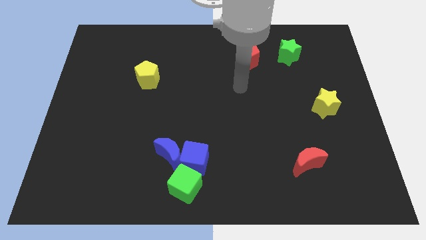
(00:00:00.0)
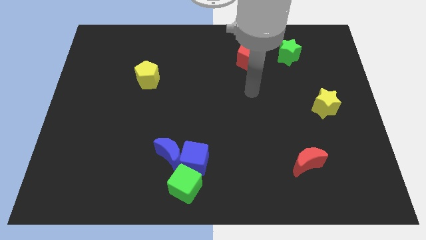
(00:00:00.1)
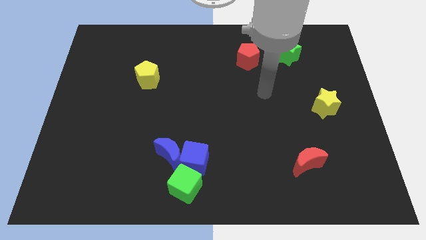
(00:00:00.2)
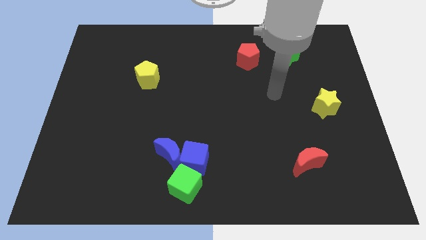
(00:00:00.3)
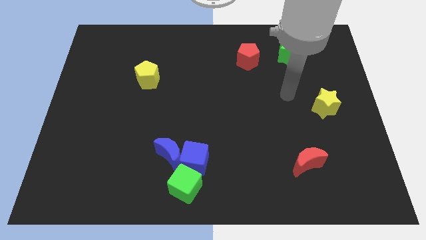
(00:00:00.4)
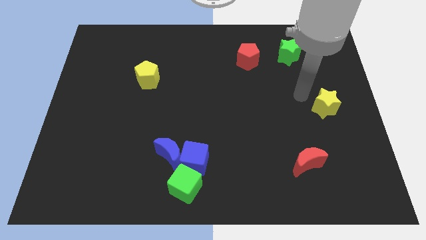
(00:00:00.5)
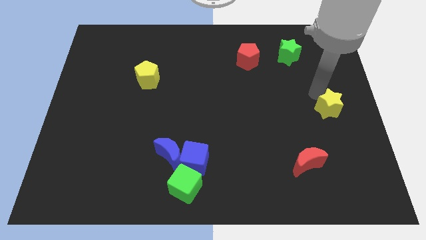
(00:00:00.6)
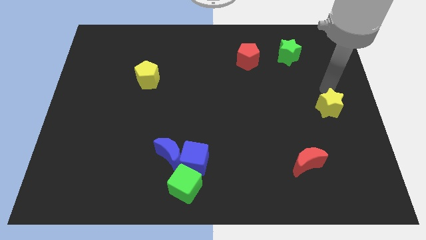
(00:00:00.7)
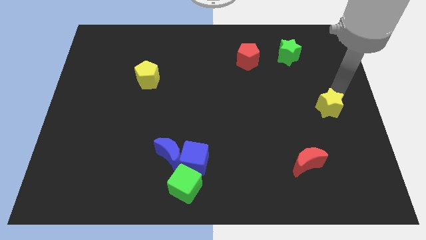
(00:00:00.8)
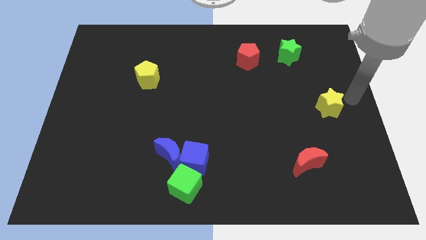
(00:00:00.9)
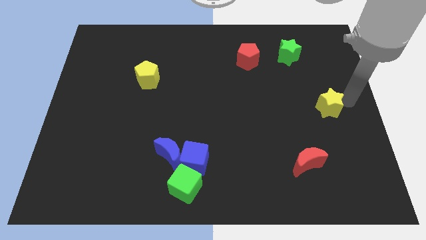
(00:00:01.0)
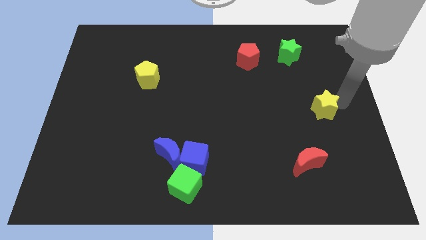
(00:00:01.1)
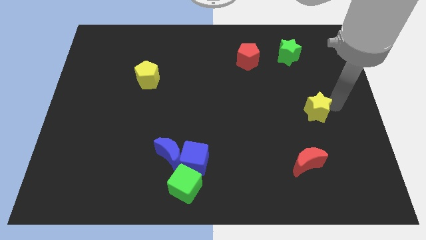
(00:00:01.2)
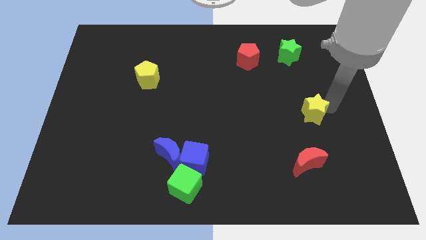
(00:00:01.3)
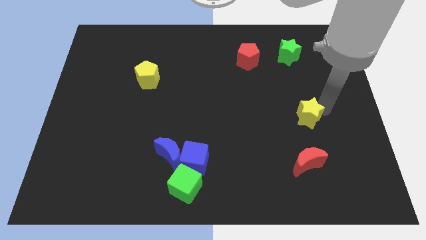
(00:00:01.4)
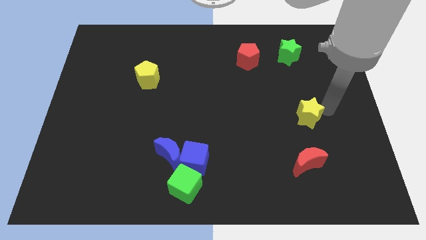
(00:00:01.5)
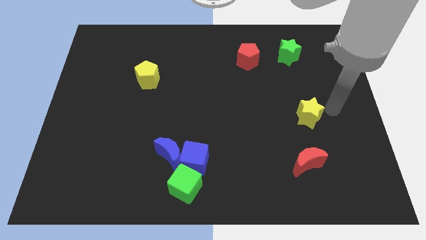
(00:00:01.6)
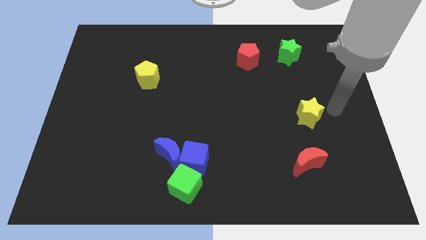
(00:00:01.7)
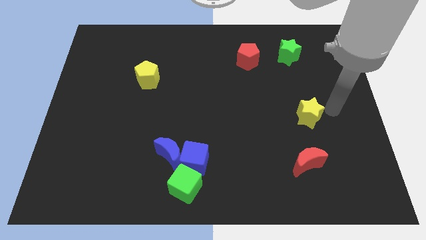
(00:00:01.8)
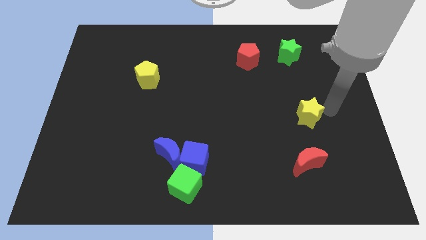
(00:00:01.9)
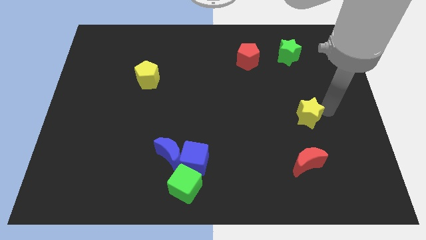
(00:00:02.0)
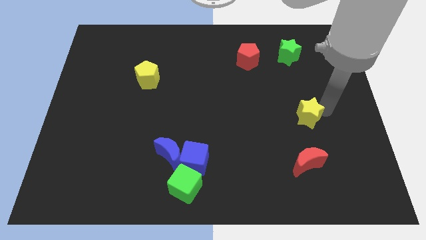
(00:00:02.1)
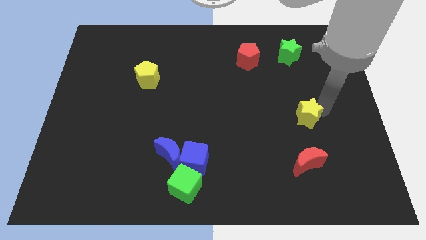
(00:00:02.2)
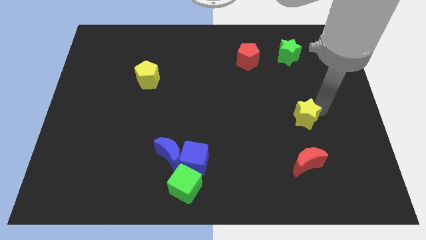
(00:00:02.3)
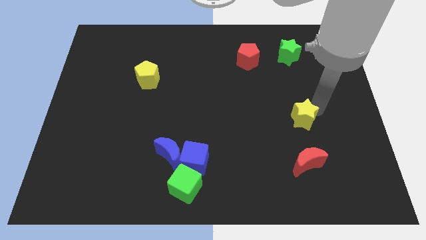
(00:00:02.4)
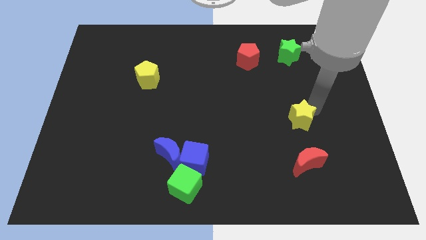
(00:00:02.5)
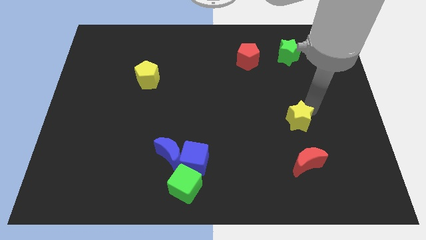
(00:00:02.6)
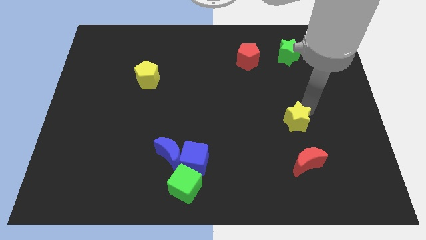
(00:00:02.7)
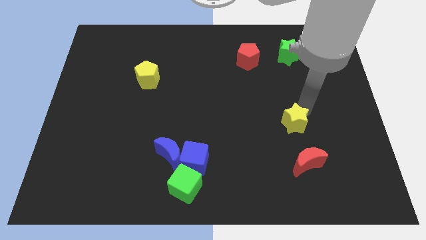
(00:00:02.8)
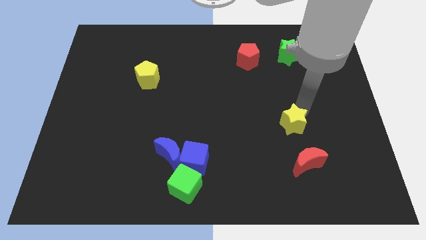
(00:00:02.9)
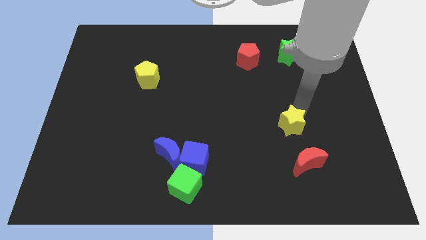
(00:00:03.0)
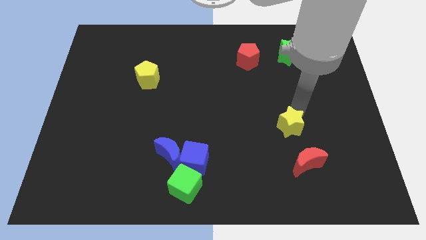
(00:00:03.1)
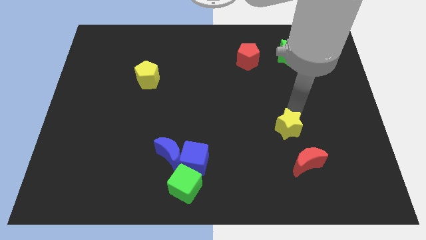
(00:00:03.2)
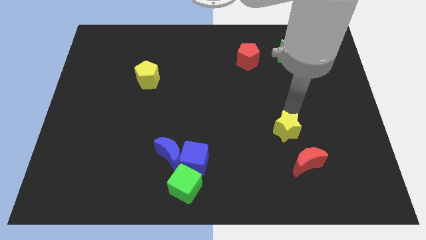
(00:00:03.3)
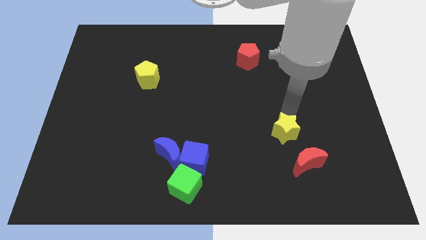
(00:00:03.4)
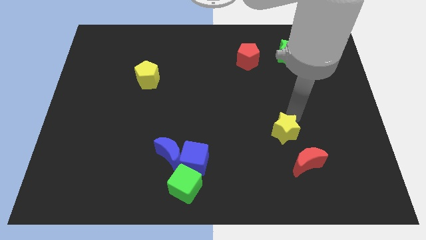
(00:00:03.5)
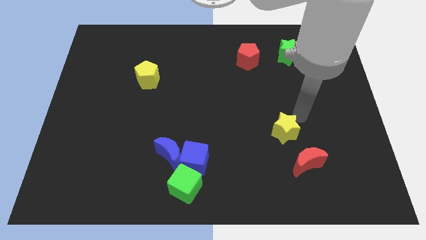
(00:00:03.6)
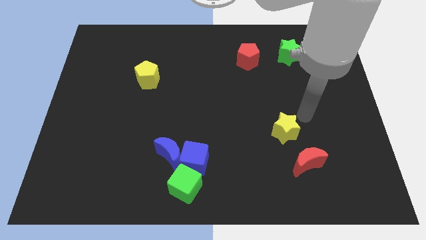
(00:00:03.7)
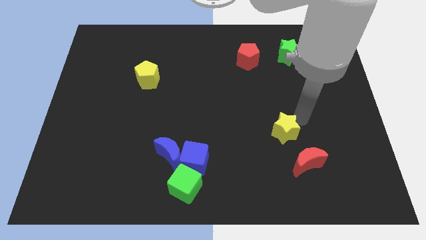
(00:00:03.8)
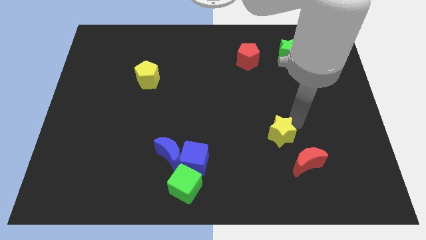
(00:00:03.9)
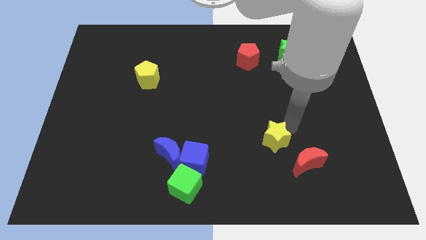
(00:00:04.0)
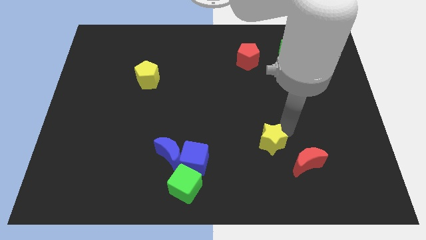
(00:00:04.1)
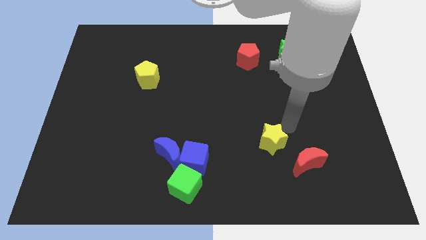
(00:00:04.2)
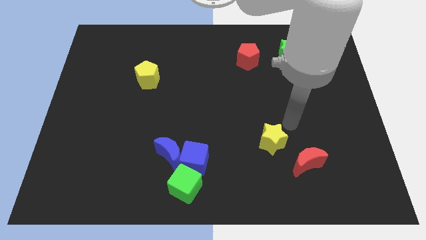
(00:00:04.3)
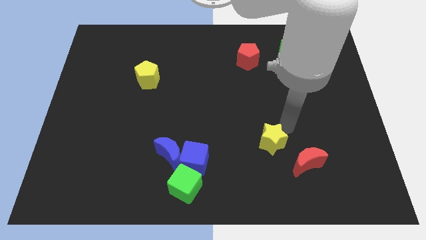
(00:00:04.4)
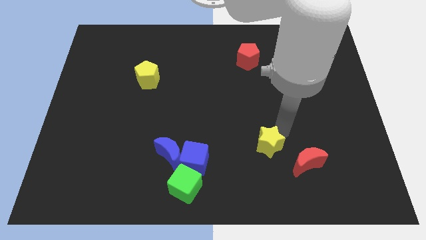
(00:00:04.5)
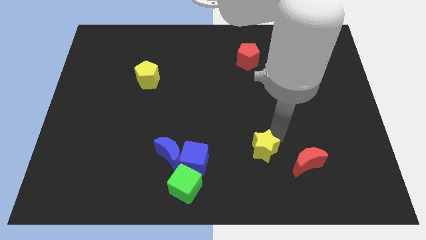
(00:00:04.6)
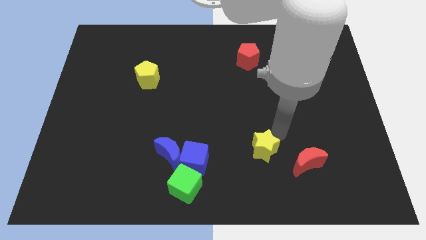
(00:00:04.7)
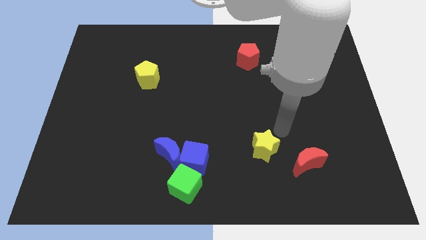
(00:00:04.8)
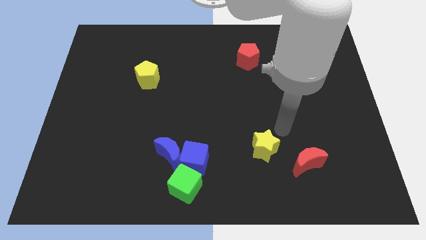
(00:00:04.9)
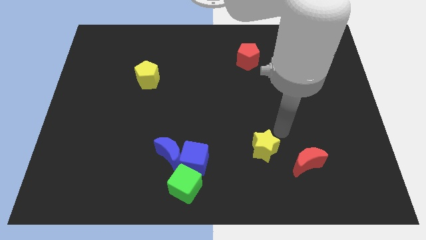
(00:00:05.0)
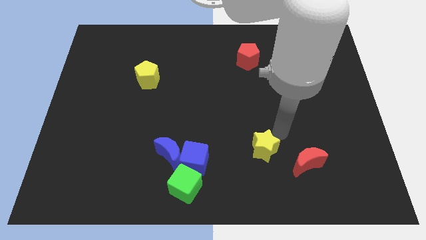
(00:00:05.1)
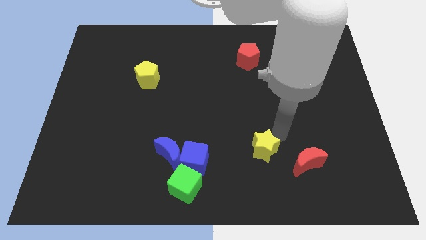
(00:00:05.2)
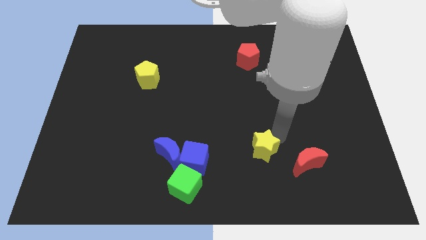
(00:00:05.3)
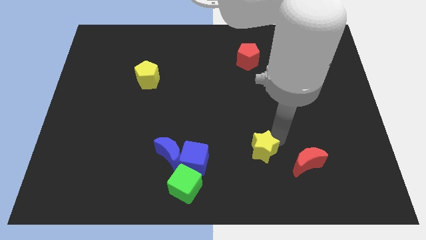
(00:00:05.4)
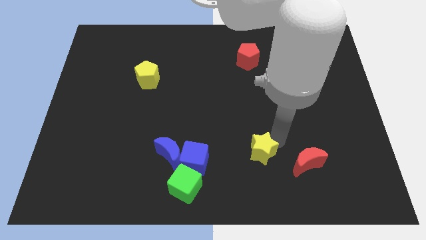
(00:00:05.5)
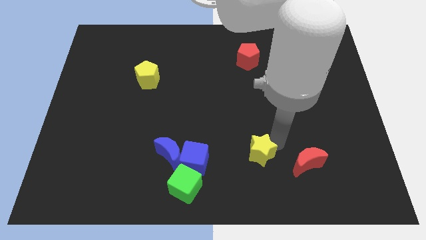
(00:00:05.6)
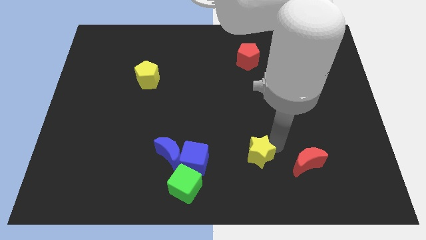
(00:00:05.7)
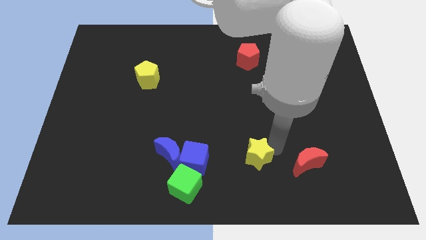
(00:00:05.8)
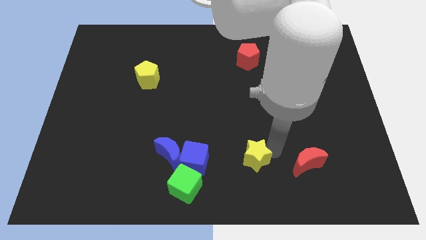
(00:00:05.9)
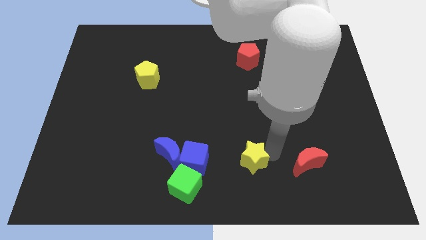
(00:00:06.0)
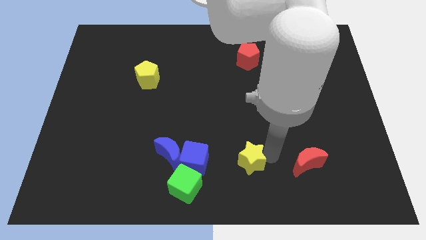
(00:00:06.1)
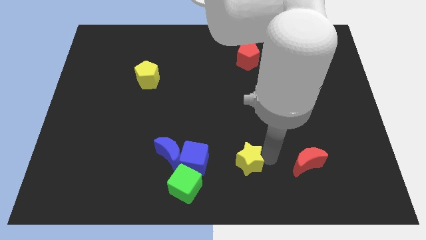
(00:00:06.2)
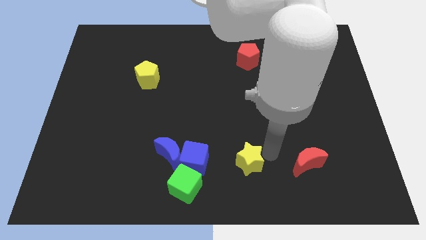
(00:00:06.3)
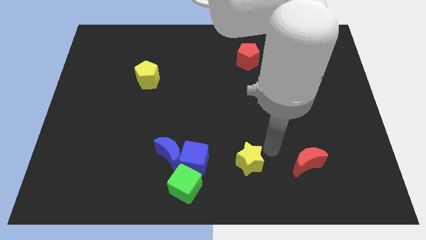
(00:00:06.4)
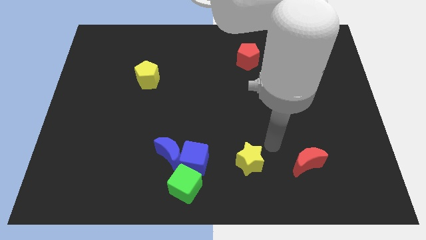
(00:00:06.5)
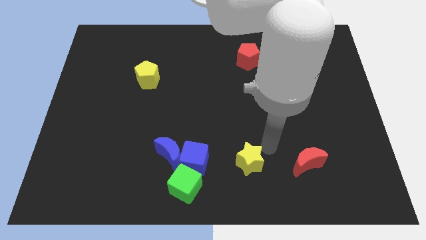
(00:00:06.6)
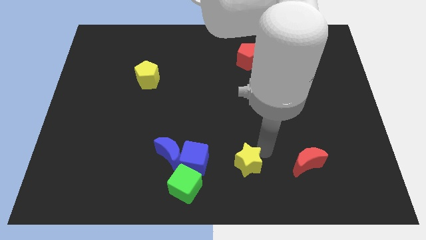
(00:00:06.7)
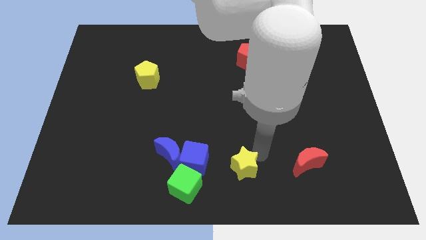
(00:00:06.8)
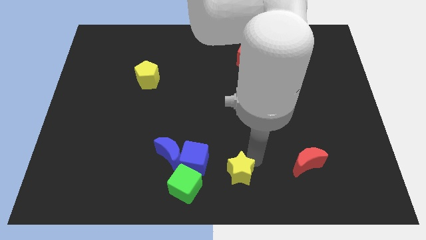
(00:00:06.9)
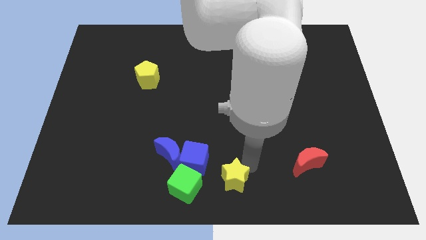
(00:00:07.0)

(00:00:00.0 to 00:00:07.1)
move the yellow star diagonally down and to the right of the blue cube
